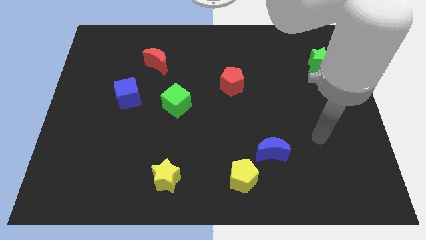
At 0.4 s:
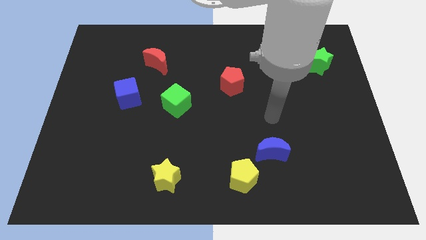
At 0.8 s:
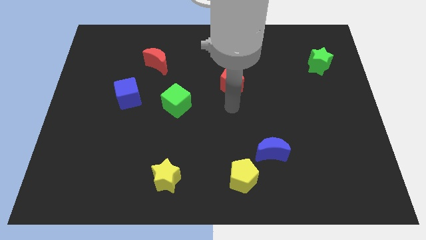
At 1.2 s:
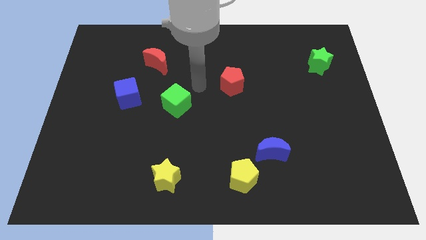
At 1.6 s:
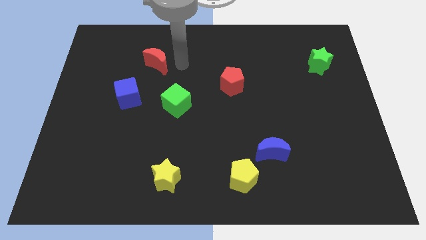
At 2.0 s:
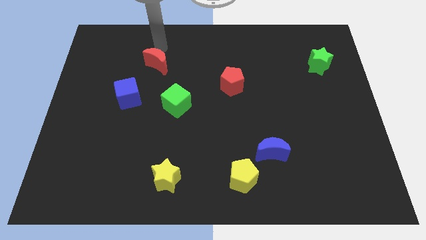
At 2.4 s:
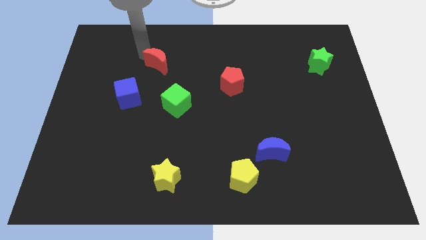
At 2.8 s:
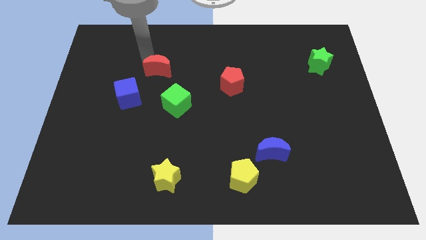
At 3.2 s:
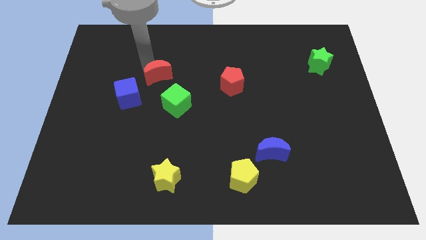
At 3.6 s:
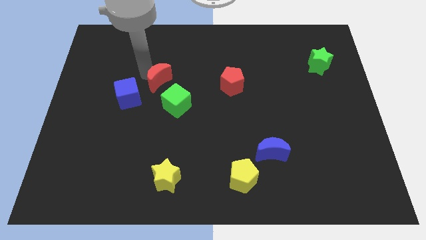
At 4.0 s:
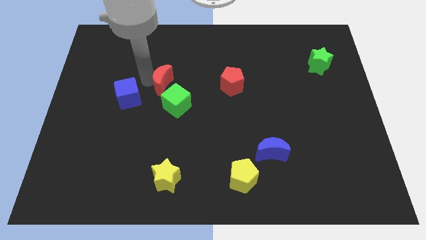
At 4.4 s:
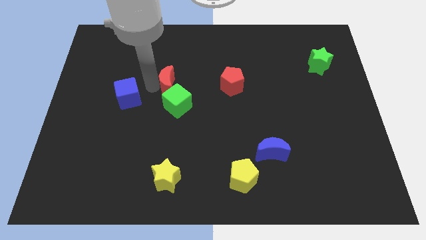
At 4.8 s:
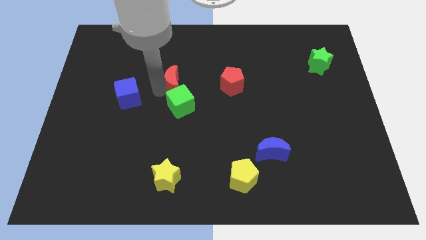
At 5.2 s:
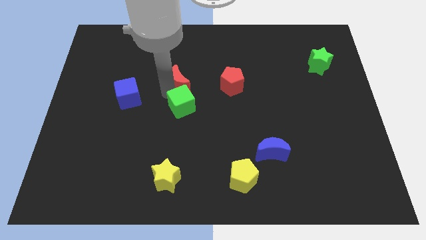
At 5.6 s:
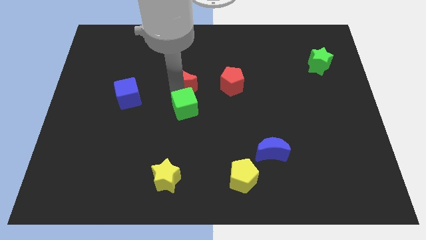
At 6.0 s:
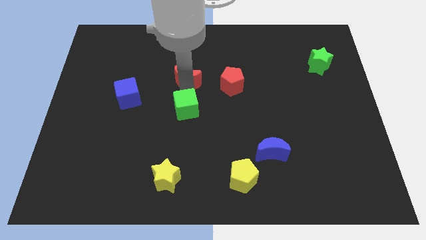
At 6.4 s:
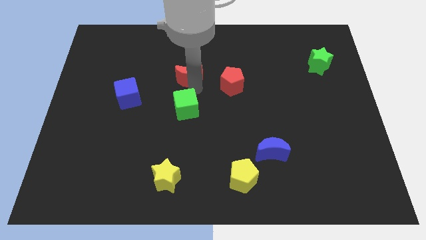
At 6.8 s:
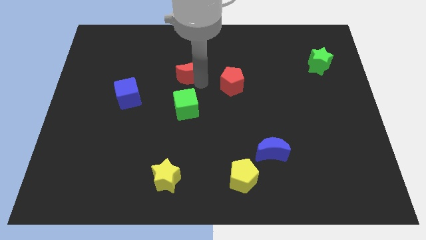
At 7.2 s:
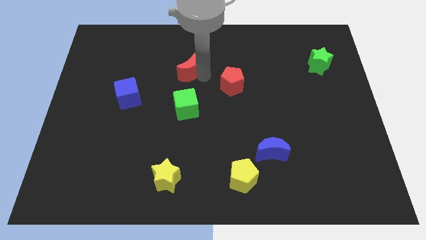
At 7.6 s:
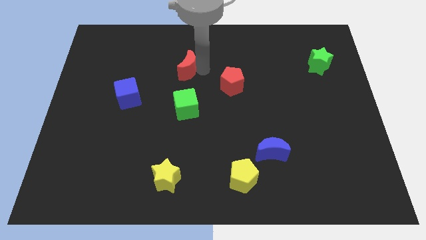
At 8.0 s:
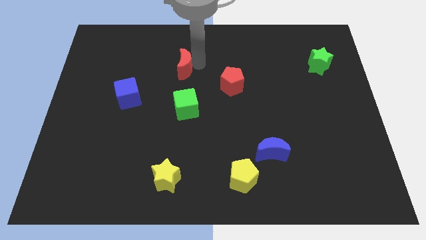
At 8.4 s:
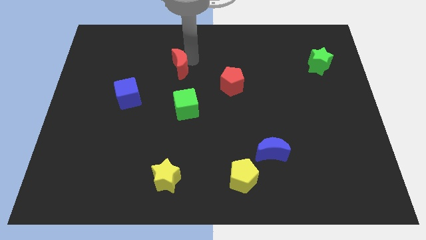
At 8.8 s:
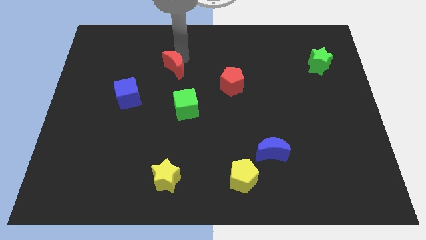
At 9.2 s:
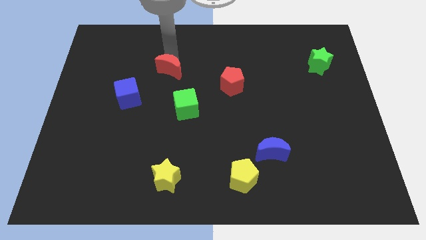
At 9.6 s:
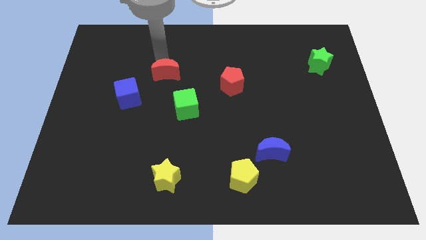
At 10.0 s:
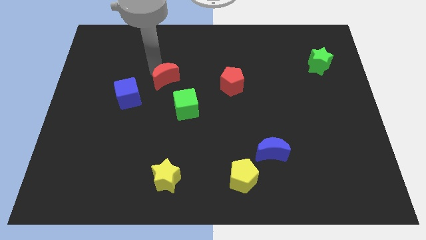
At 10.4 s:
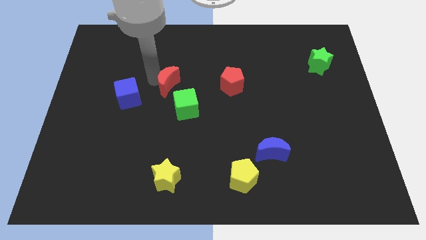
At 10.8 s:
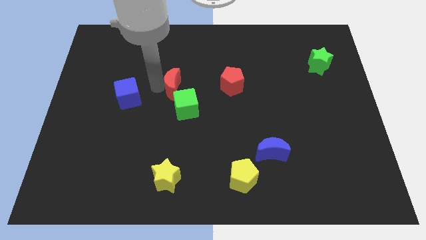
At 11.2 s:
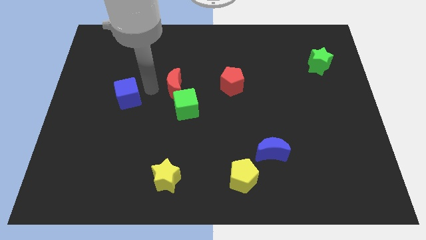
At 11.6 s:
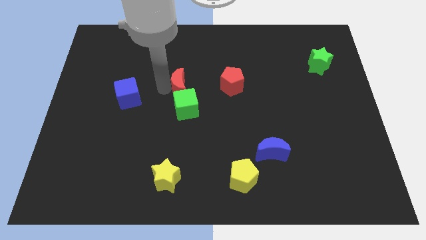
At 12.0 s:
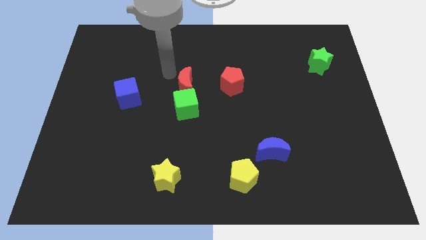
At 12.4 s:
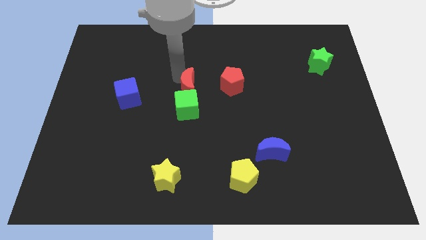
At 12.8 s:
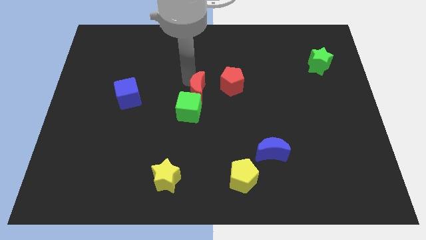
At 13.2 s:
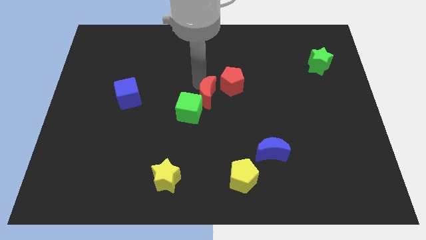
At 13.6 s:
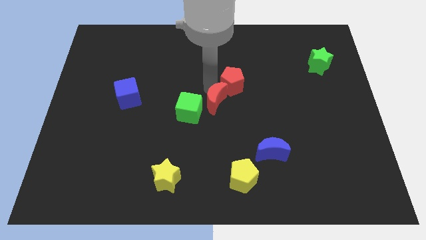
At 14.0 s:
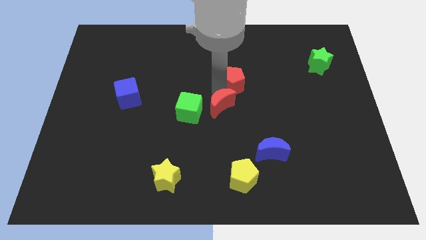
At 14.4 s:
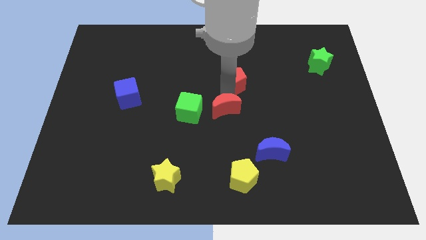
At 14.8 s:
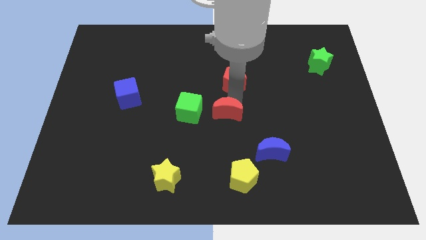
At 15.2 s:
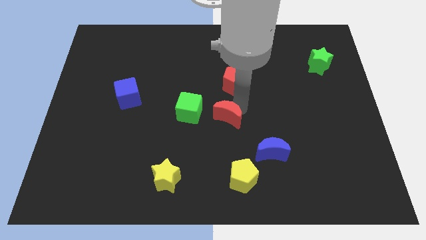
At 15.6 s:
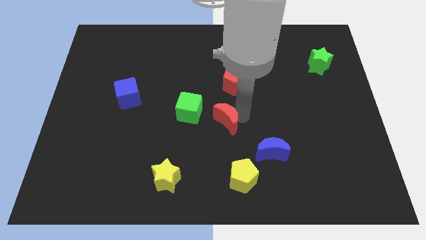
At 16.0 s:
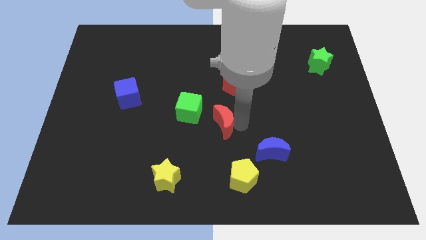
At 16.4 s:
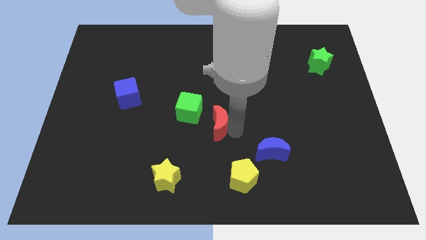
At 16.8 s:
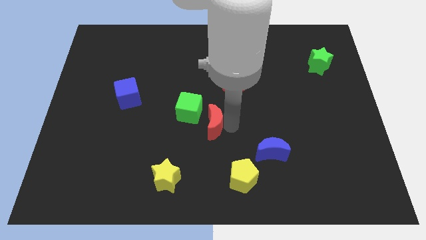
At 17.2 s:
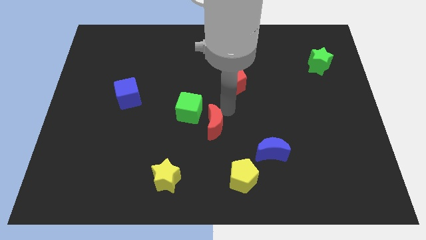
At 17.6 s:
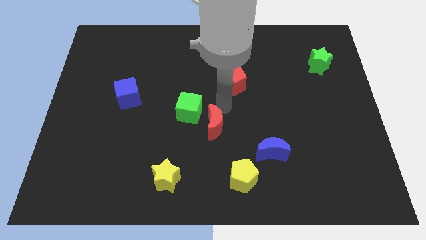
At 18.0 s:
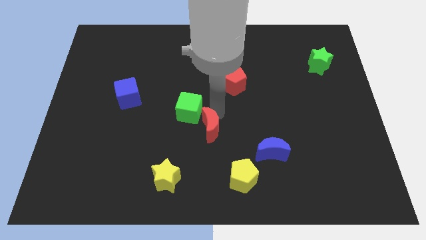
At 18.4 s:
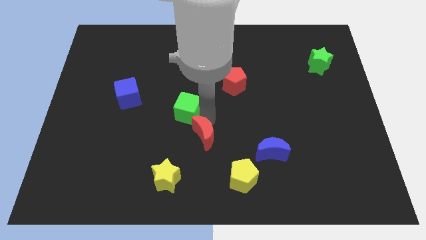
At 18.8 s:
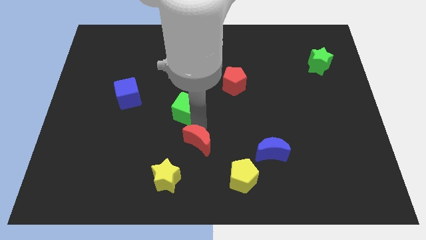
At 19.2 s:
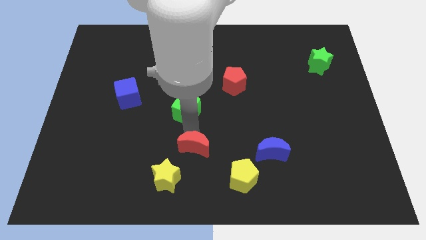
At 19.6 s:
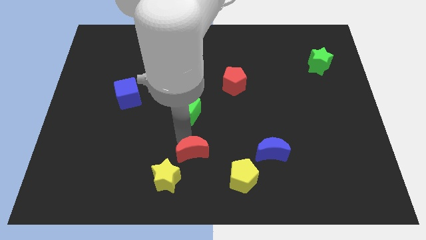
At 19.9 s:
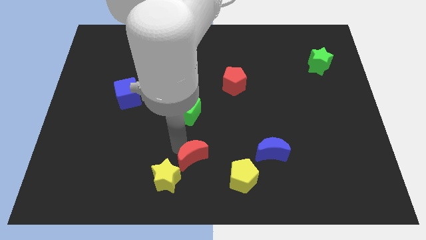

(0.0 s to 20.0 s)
slide the red moon to the bottom

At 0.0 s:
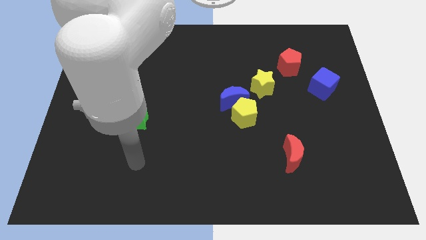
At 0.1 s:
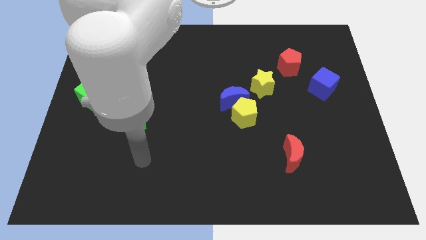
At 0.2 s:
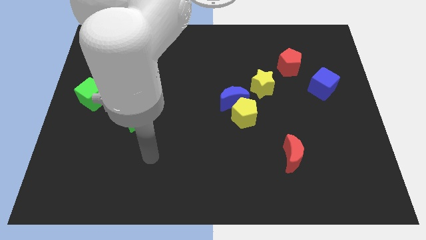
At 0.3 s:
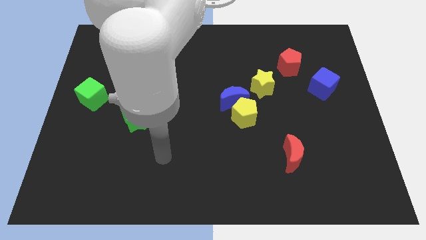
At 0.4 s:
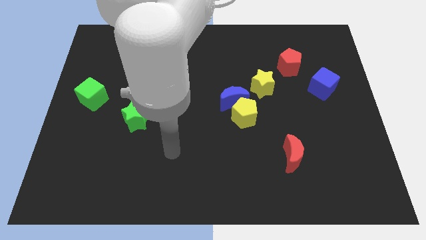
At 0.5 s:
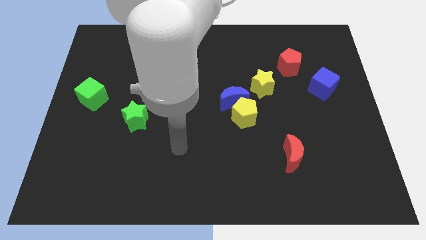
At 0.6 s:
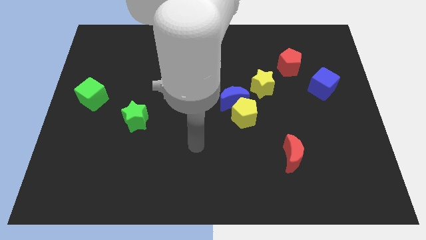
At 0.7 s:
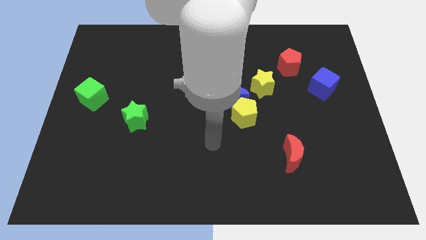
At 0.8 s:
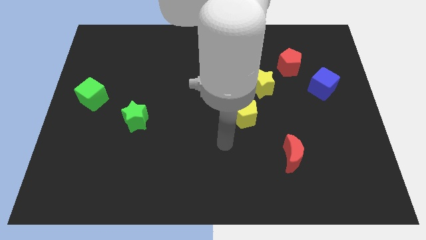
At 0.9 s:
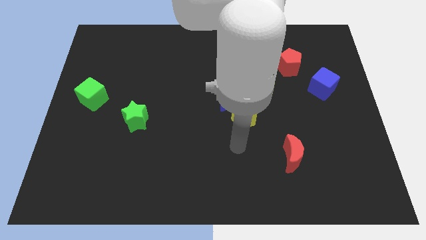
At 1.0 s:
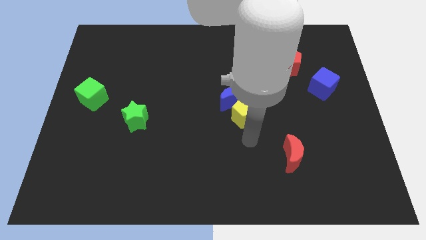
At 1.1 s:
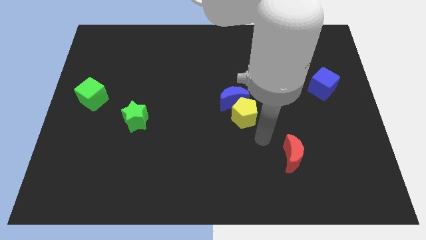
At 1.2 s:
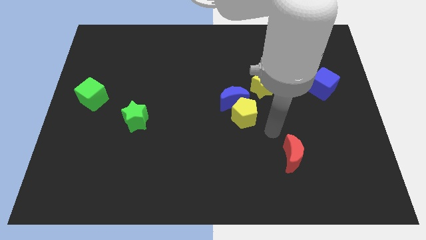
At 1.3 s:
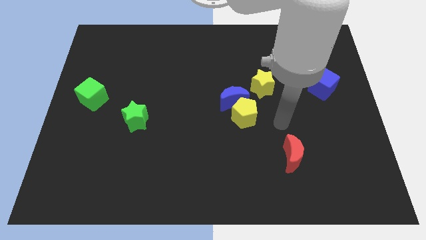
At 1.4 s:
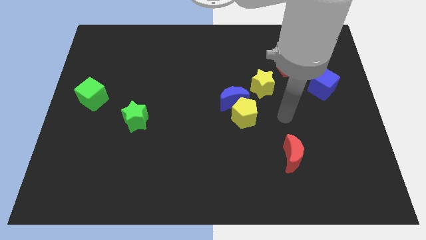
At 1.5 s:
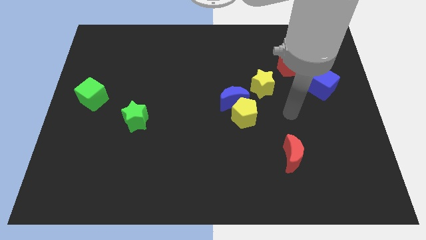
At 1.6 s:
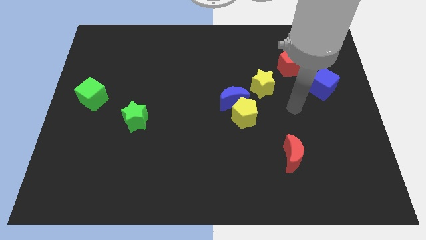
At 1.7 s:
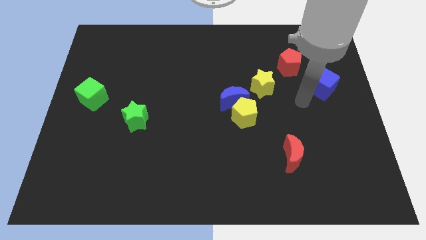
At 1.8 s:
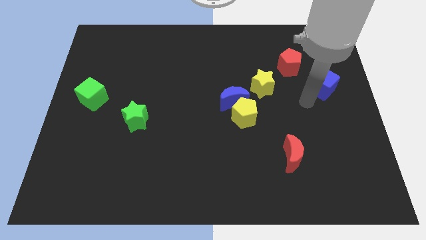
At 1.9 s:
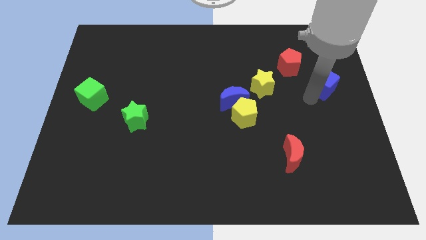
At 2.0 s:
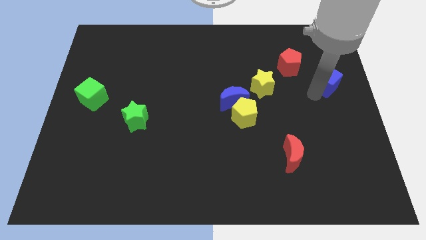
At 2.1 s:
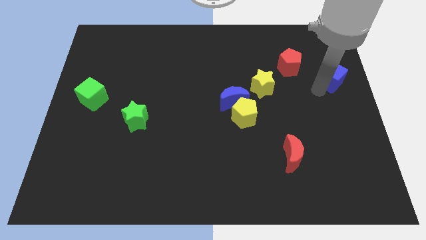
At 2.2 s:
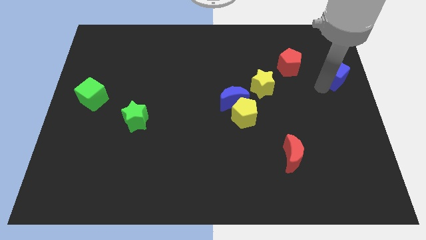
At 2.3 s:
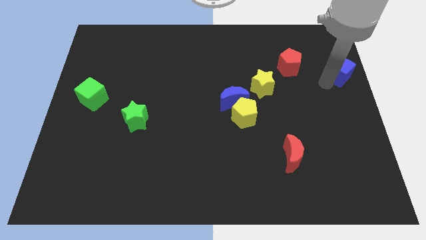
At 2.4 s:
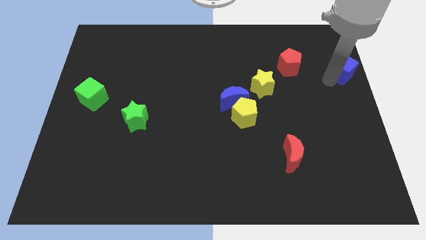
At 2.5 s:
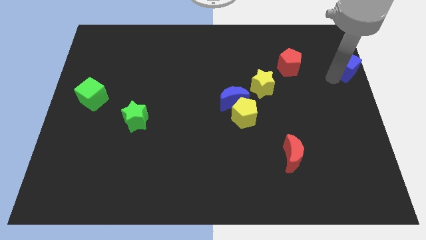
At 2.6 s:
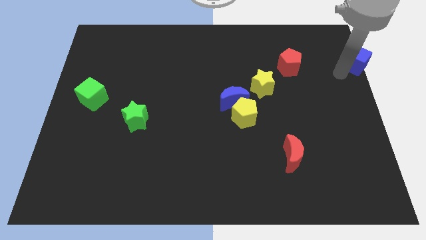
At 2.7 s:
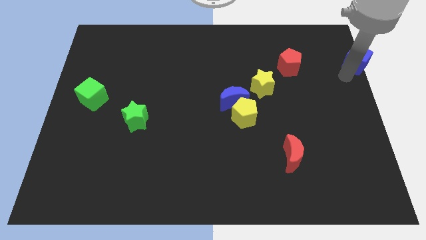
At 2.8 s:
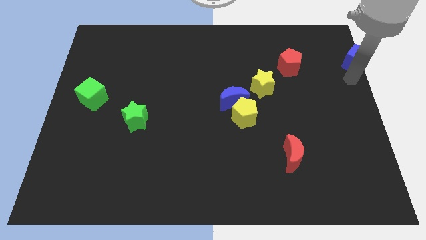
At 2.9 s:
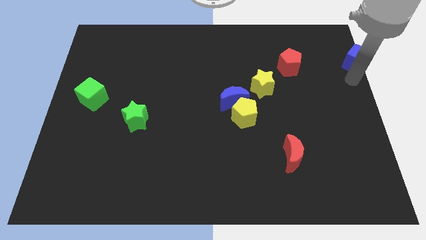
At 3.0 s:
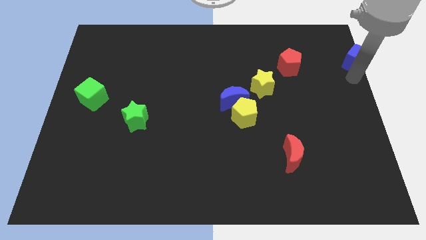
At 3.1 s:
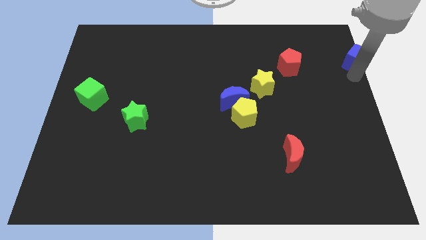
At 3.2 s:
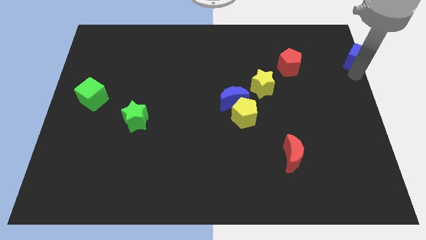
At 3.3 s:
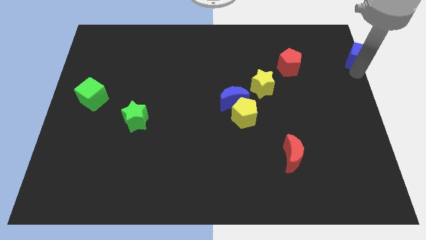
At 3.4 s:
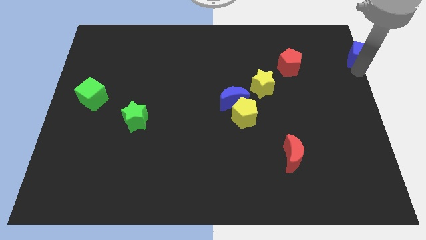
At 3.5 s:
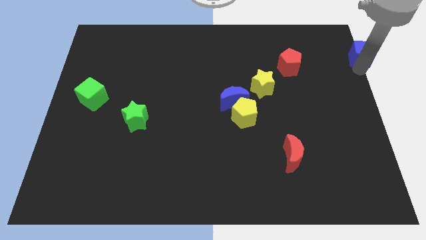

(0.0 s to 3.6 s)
push the blue cube to the upper right corner
